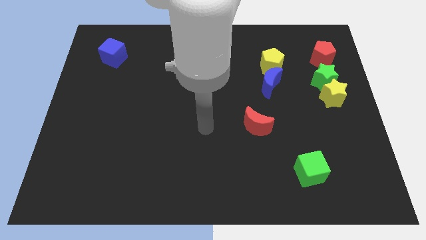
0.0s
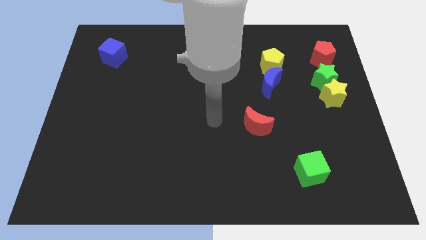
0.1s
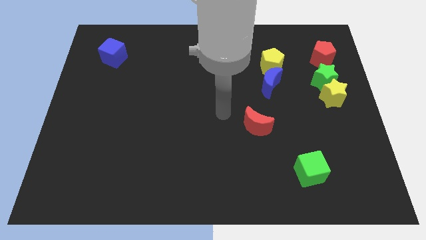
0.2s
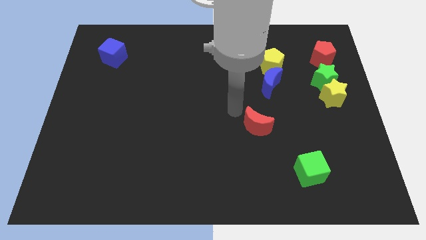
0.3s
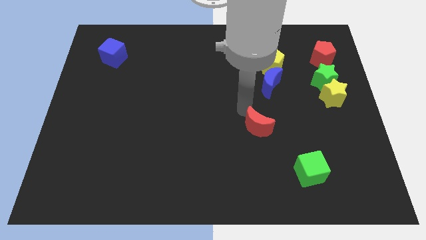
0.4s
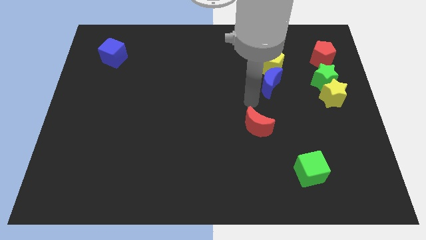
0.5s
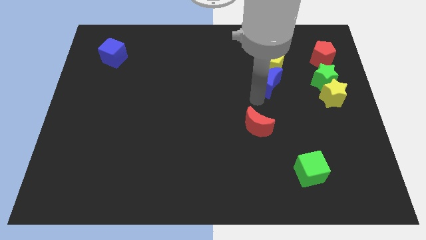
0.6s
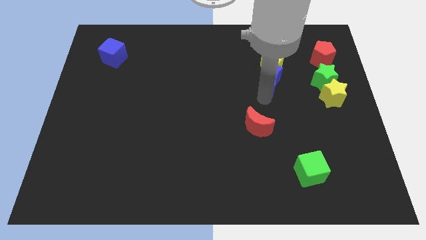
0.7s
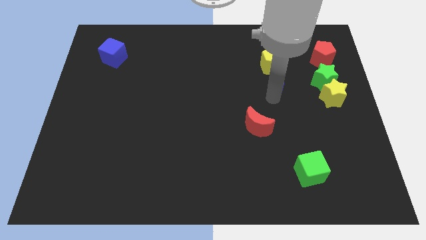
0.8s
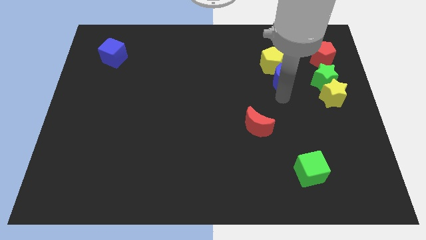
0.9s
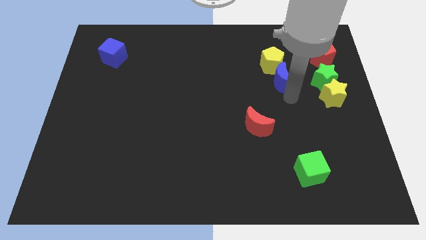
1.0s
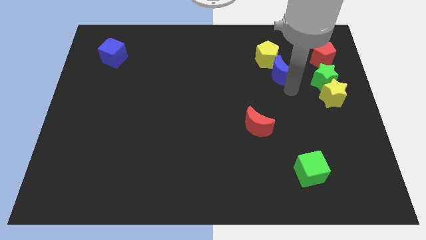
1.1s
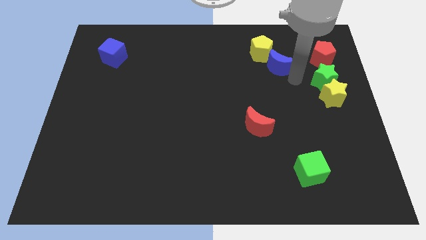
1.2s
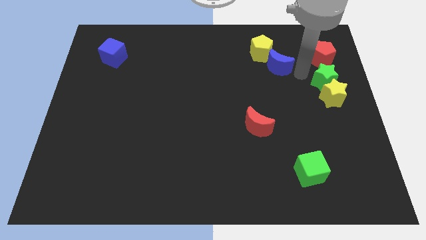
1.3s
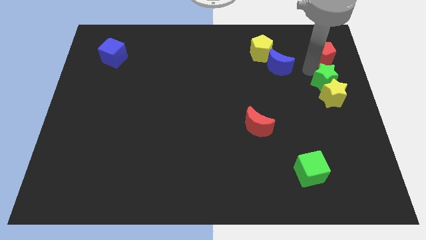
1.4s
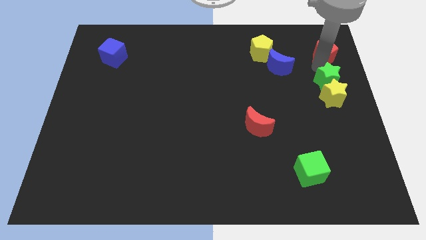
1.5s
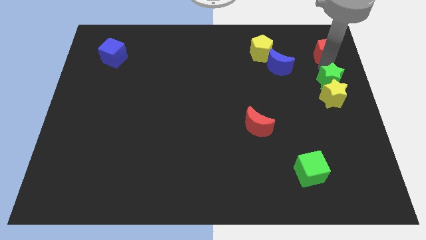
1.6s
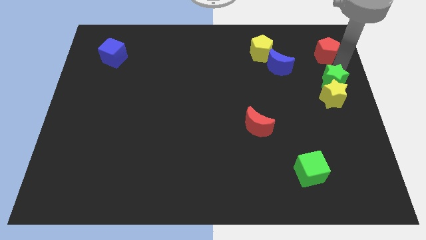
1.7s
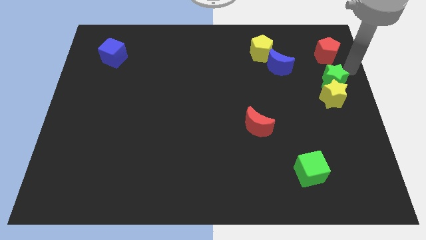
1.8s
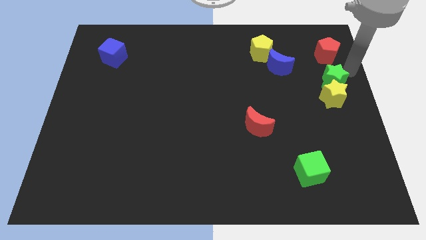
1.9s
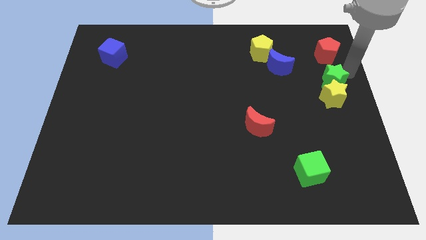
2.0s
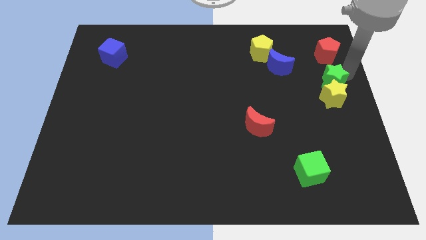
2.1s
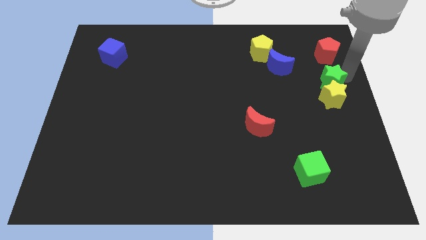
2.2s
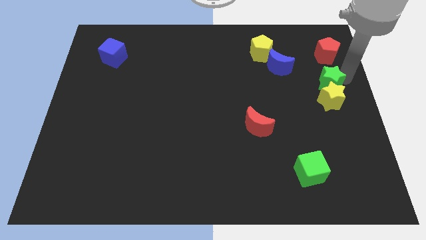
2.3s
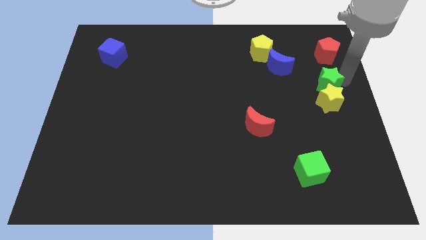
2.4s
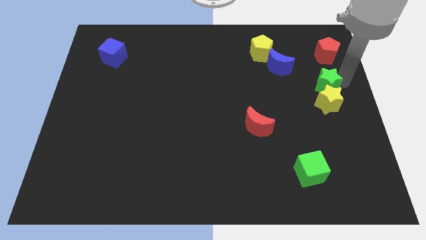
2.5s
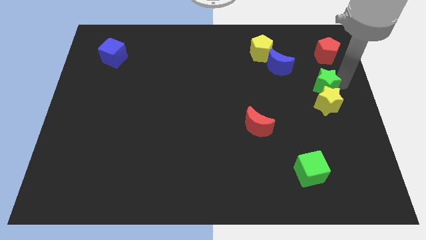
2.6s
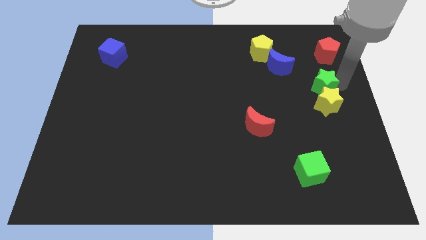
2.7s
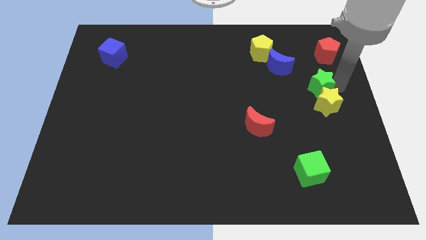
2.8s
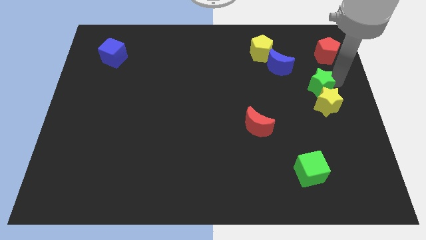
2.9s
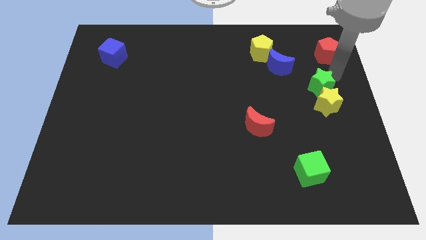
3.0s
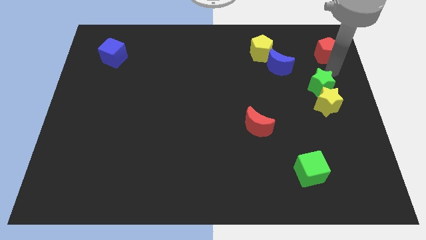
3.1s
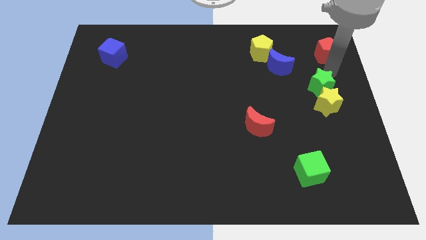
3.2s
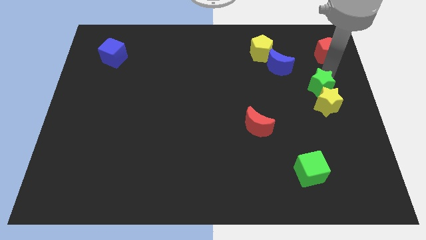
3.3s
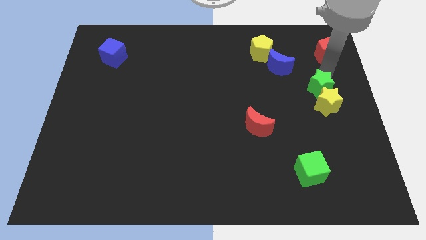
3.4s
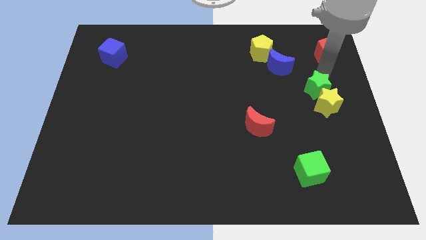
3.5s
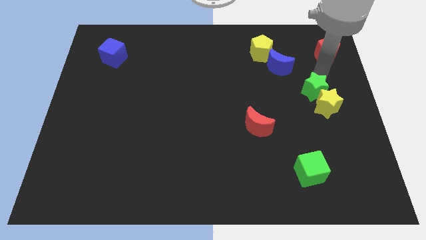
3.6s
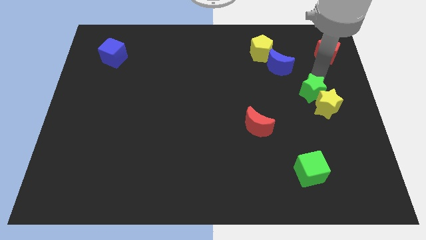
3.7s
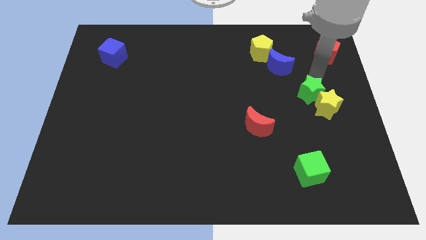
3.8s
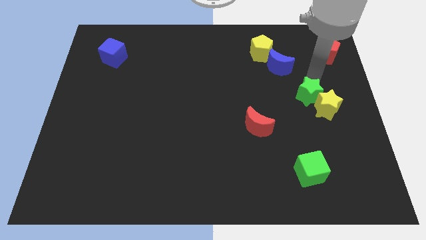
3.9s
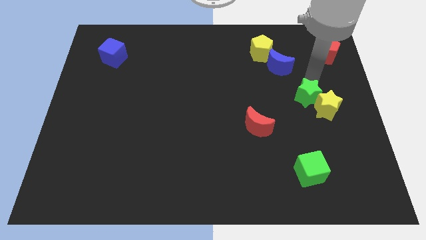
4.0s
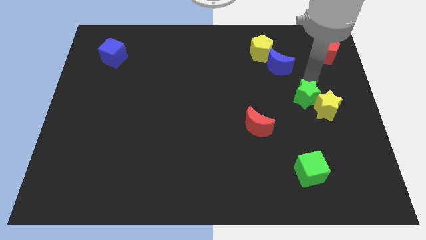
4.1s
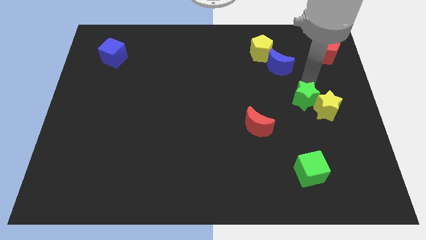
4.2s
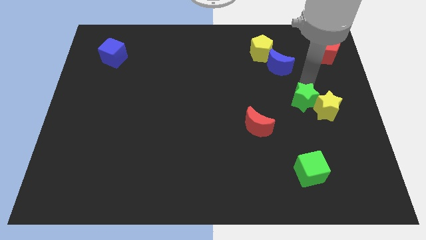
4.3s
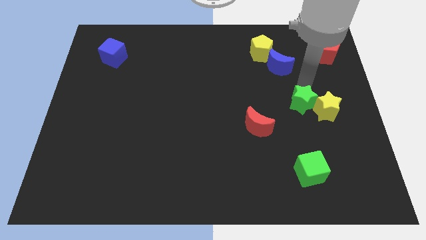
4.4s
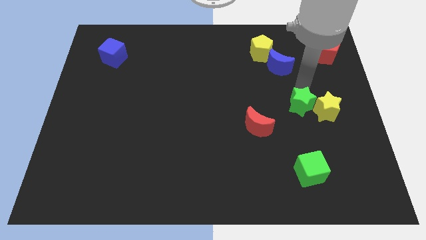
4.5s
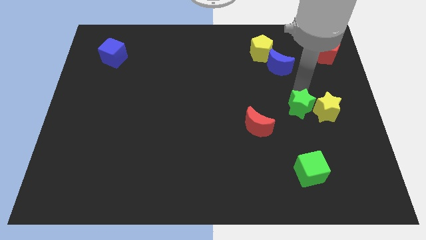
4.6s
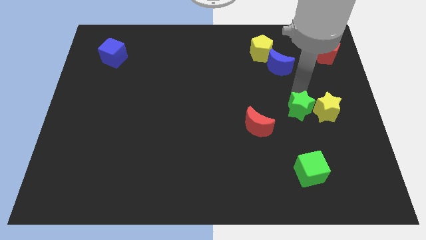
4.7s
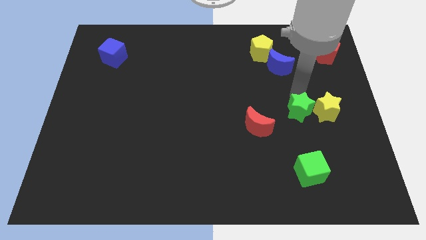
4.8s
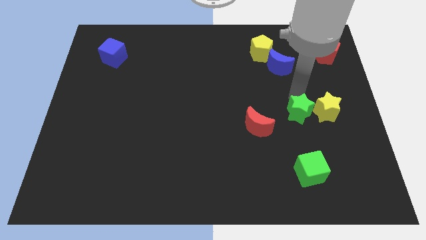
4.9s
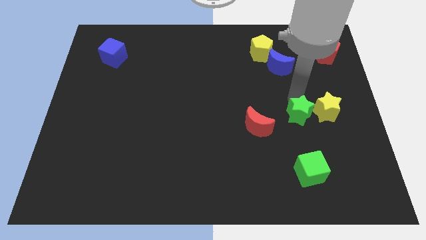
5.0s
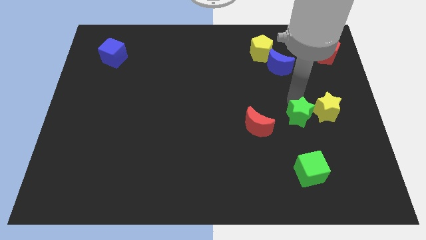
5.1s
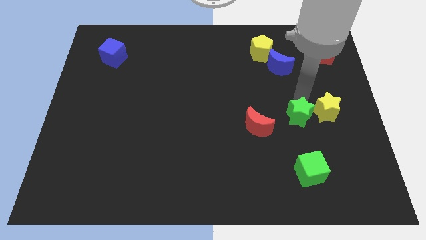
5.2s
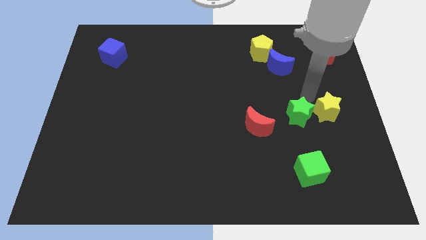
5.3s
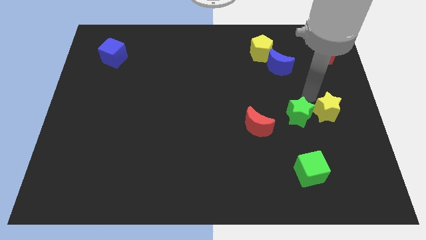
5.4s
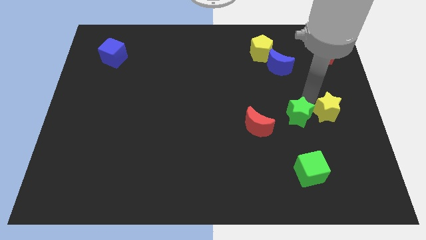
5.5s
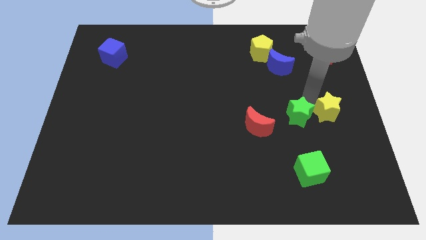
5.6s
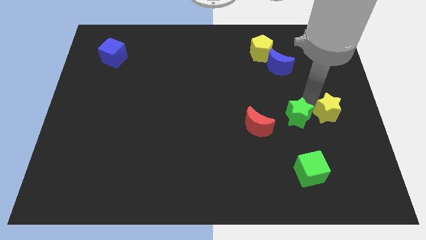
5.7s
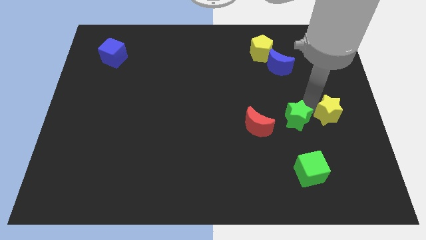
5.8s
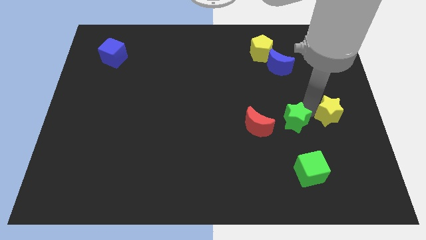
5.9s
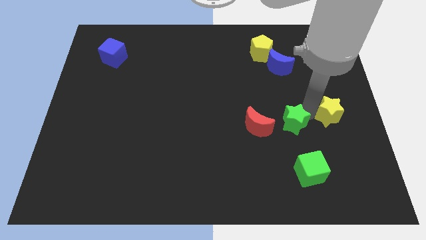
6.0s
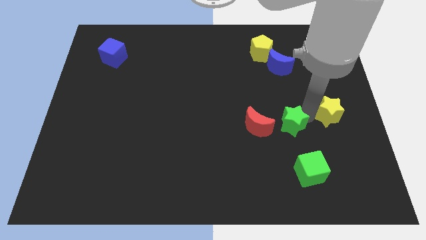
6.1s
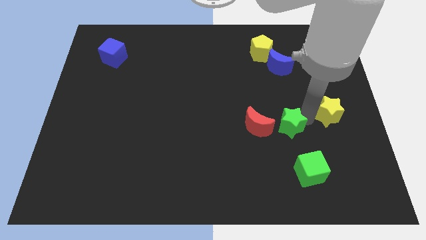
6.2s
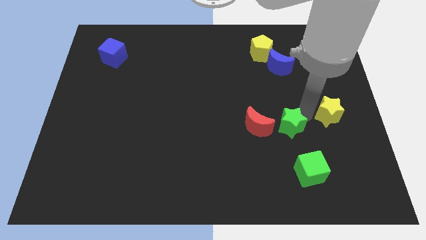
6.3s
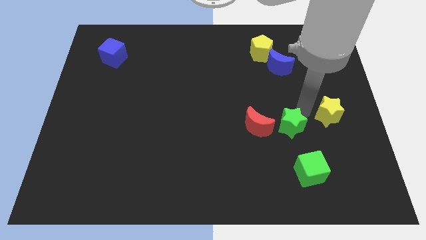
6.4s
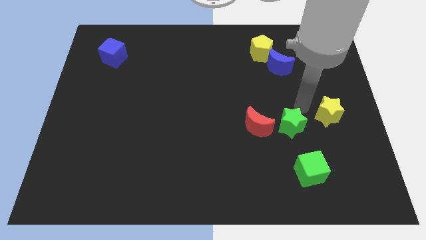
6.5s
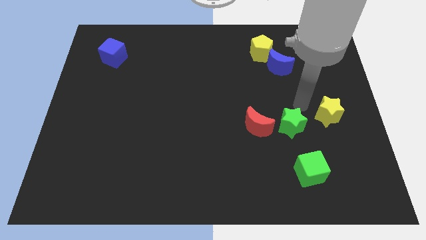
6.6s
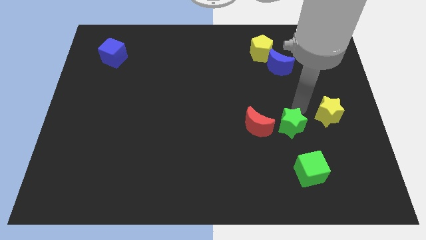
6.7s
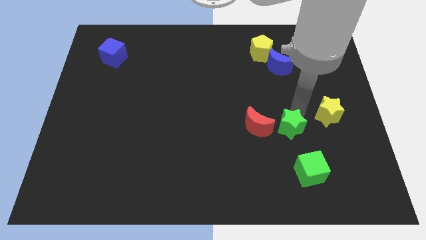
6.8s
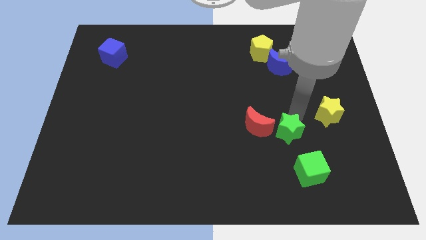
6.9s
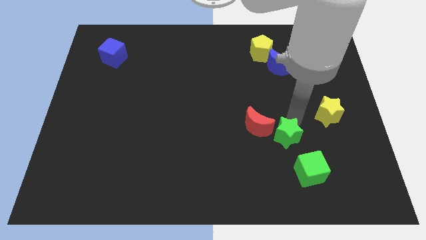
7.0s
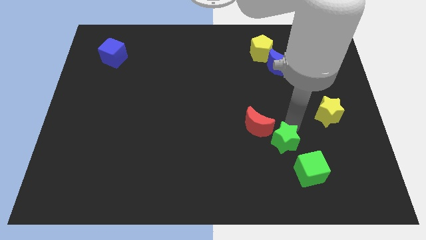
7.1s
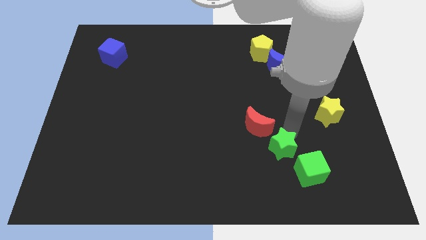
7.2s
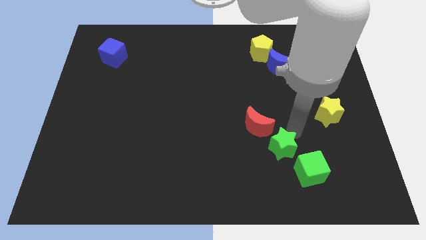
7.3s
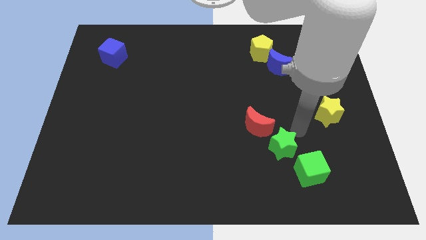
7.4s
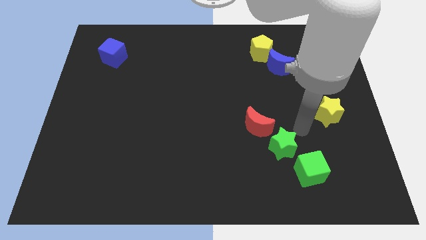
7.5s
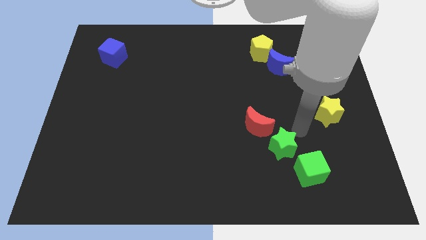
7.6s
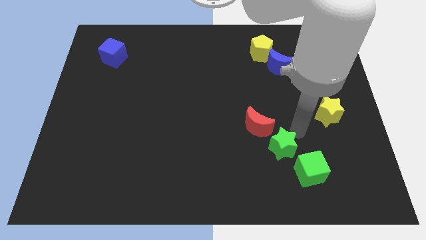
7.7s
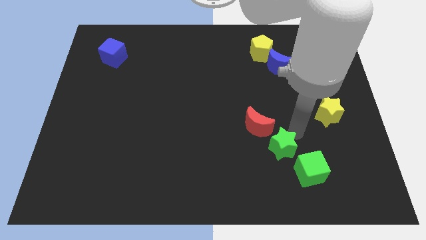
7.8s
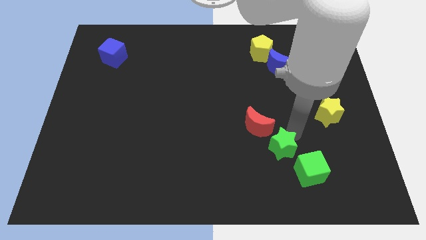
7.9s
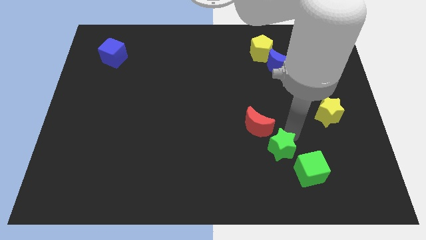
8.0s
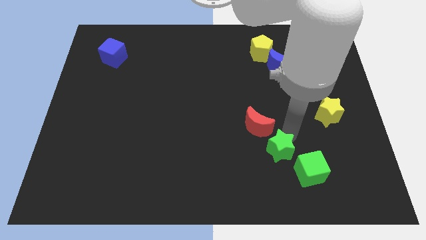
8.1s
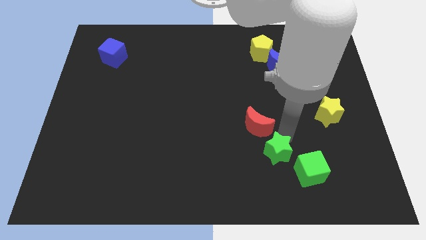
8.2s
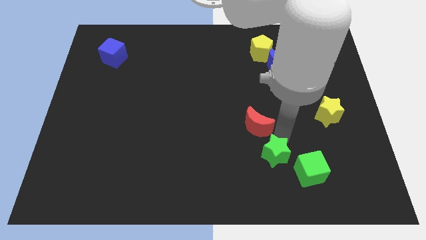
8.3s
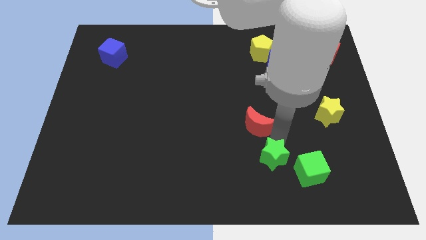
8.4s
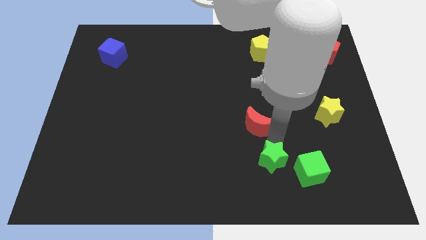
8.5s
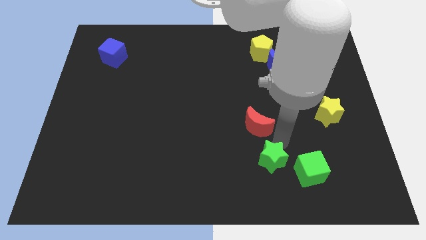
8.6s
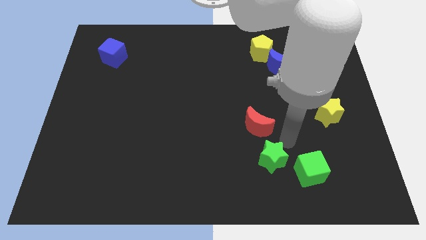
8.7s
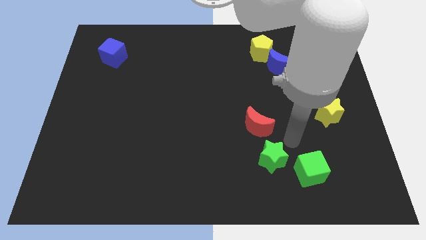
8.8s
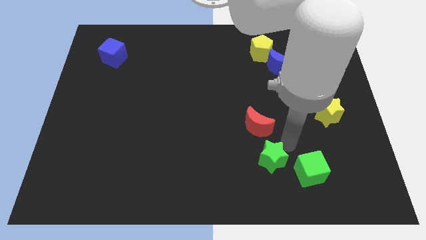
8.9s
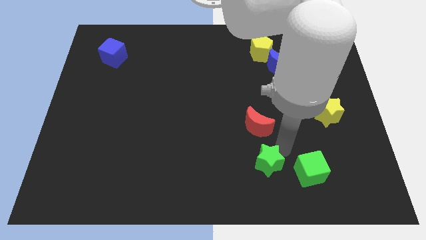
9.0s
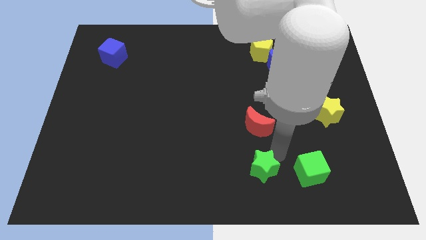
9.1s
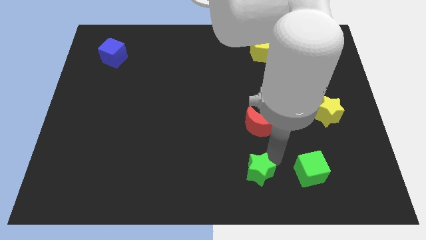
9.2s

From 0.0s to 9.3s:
move the green star to the bottom
